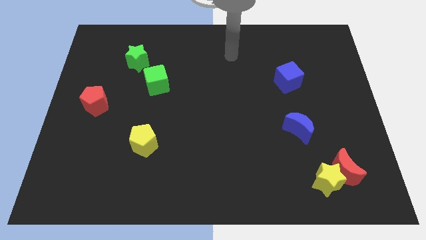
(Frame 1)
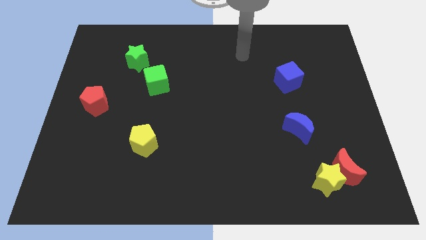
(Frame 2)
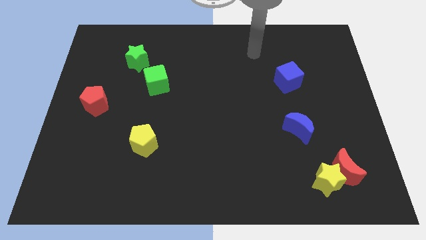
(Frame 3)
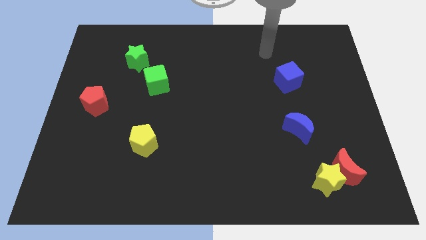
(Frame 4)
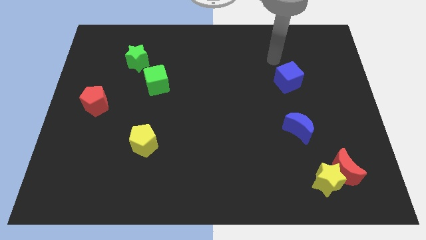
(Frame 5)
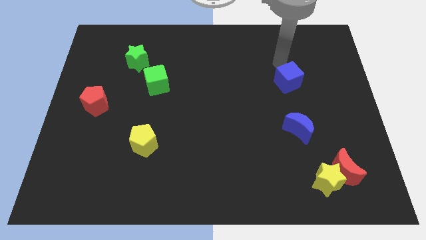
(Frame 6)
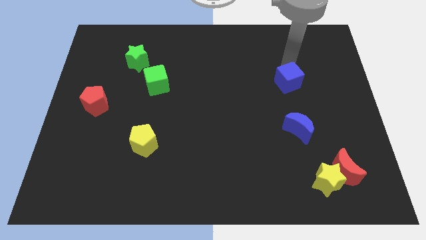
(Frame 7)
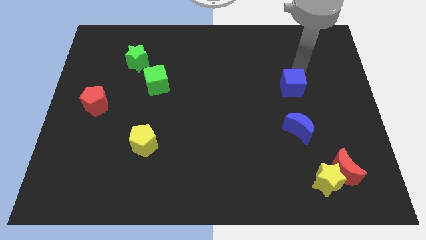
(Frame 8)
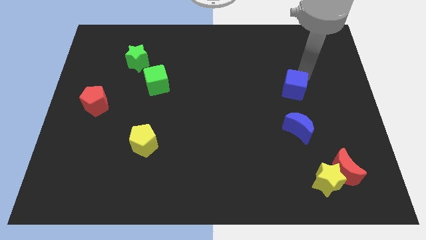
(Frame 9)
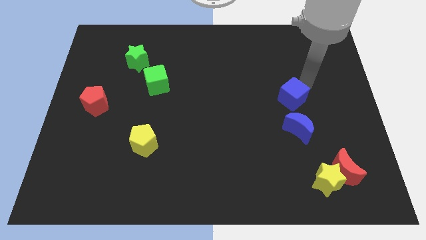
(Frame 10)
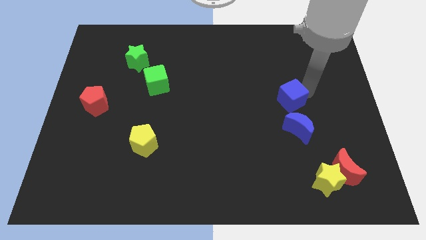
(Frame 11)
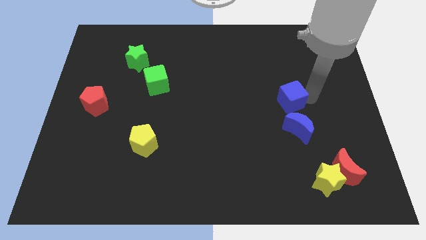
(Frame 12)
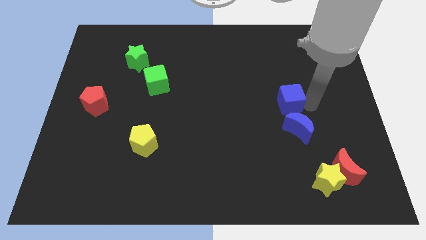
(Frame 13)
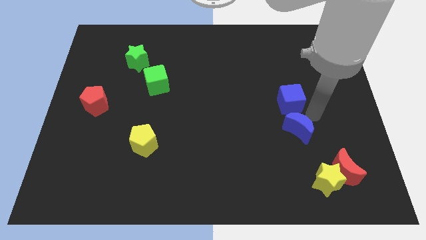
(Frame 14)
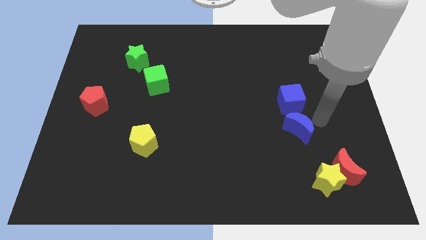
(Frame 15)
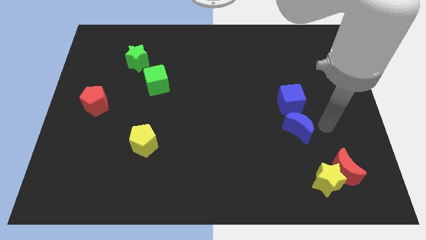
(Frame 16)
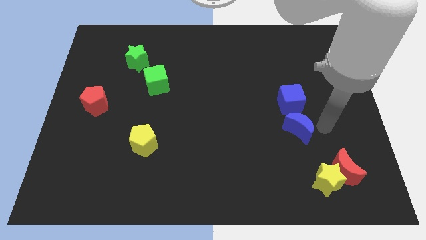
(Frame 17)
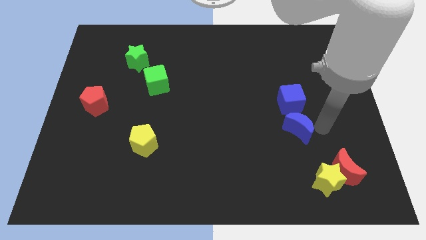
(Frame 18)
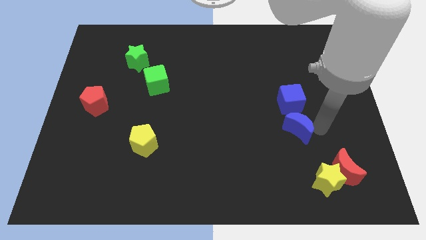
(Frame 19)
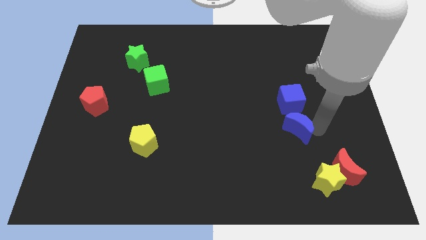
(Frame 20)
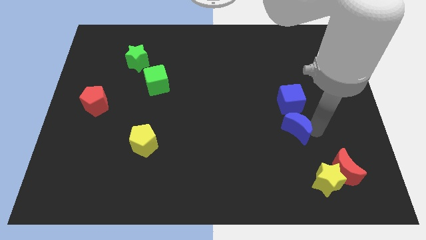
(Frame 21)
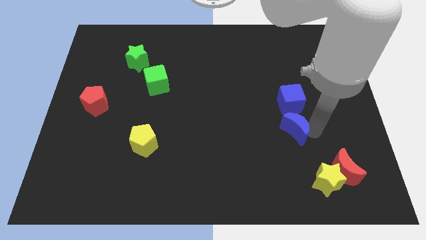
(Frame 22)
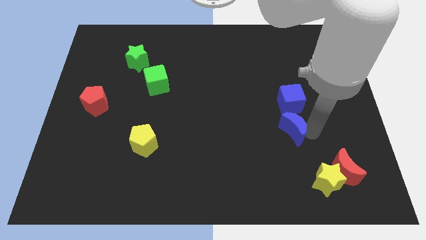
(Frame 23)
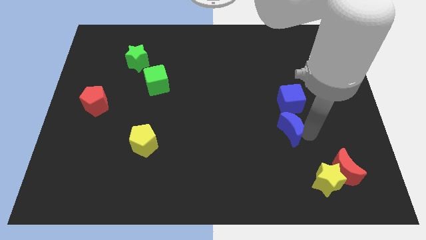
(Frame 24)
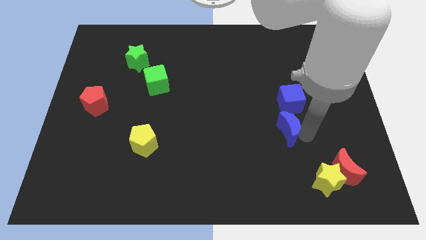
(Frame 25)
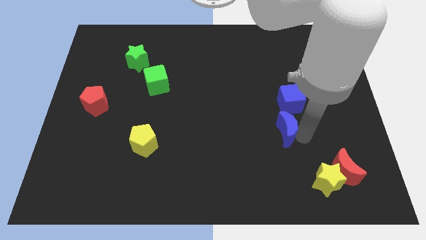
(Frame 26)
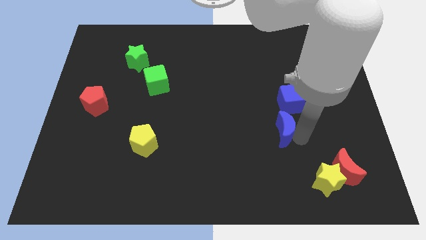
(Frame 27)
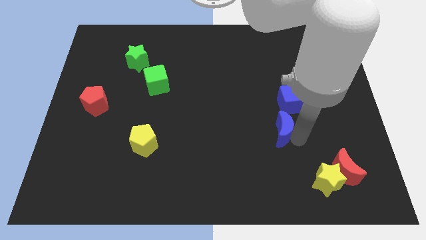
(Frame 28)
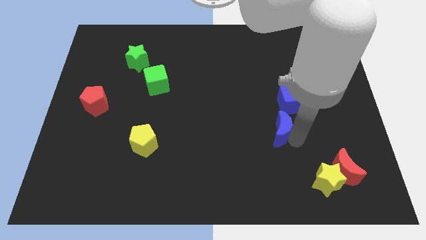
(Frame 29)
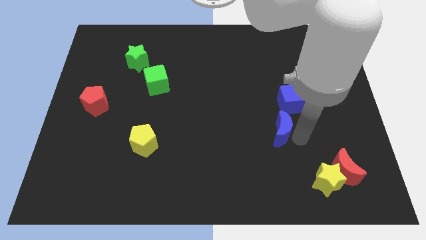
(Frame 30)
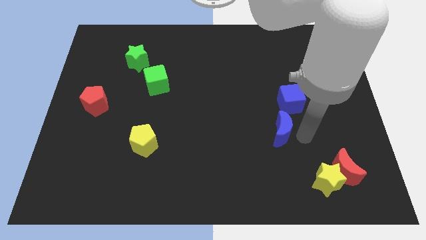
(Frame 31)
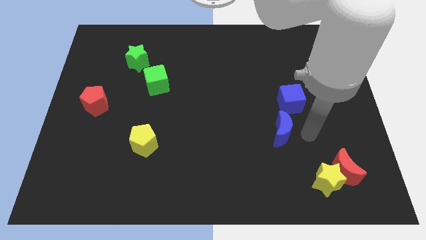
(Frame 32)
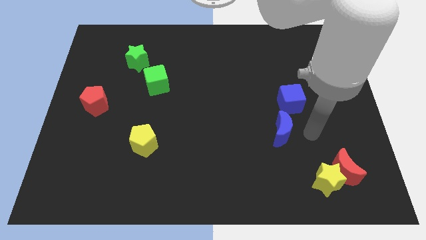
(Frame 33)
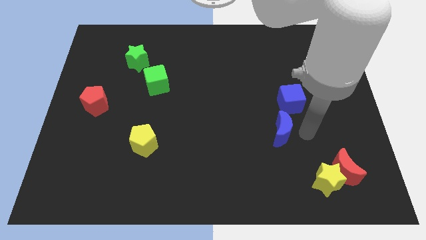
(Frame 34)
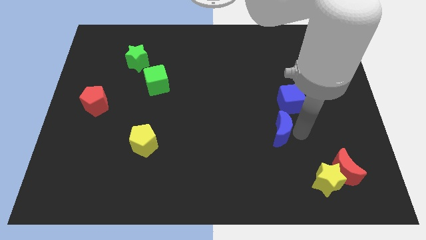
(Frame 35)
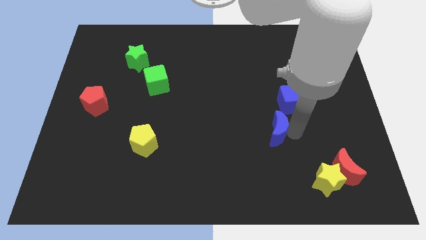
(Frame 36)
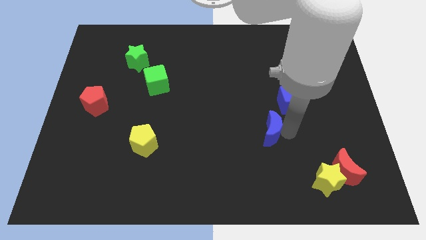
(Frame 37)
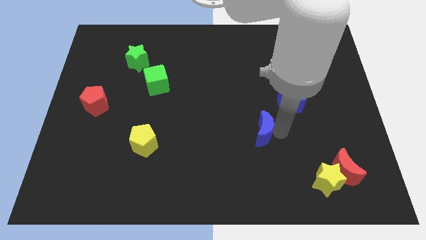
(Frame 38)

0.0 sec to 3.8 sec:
slightly slide the blue moon to the left

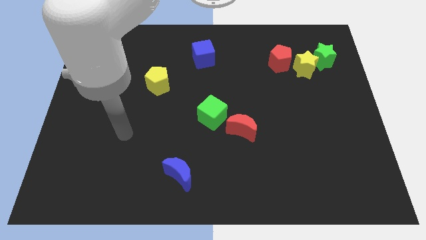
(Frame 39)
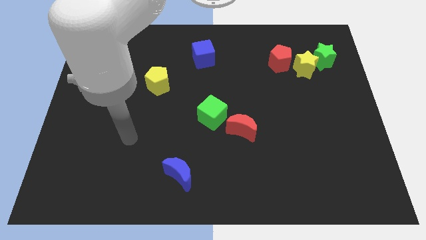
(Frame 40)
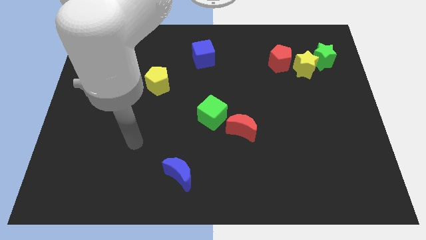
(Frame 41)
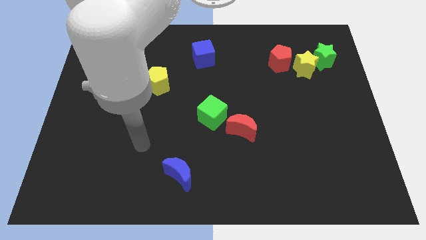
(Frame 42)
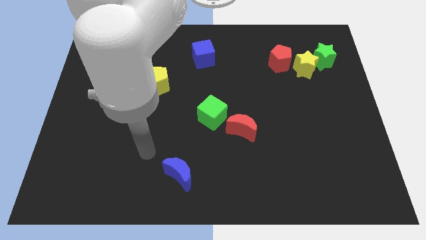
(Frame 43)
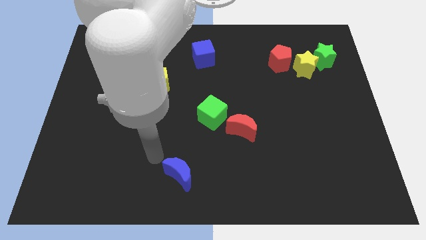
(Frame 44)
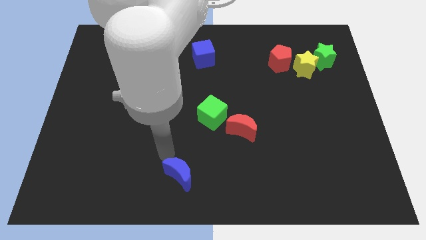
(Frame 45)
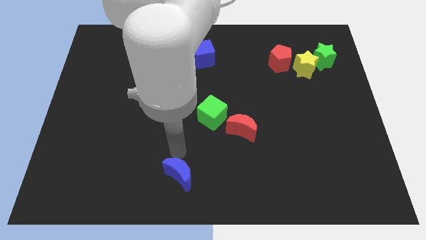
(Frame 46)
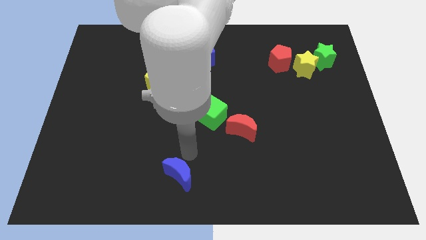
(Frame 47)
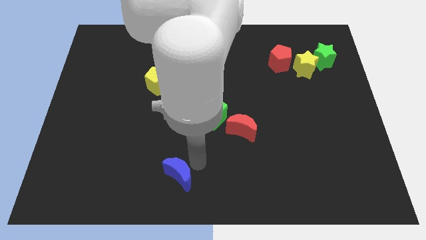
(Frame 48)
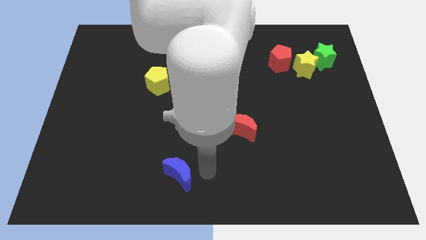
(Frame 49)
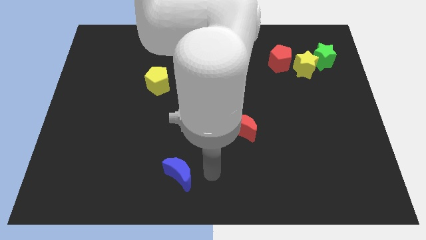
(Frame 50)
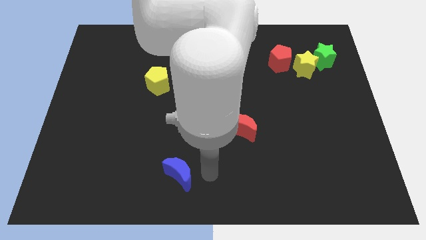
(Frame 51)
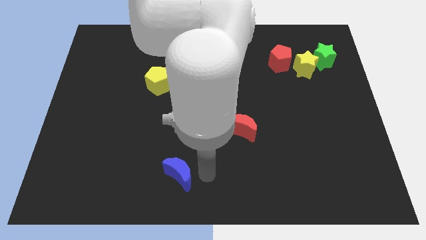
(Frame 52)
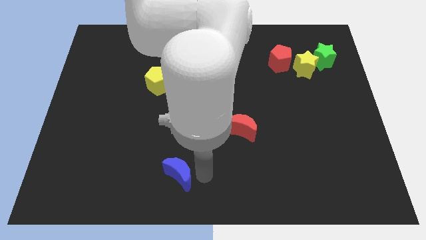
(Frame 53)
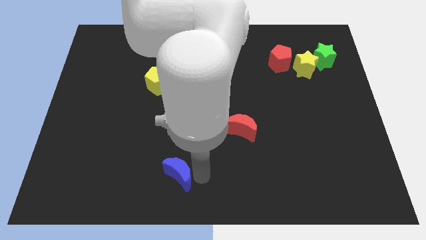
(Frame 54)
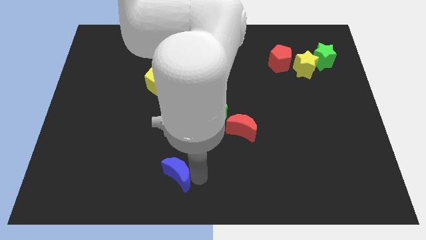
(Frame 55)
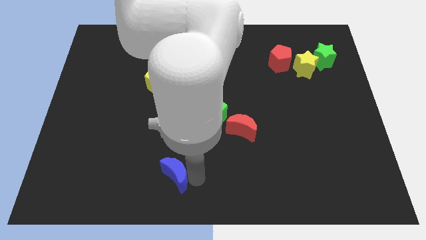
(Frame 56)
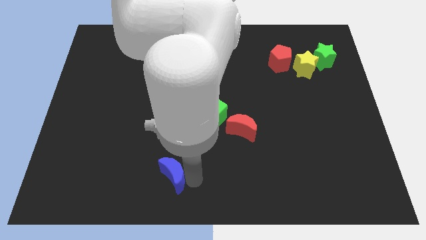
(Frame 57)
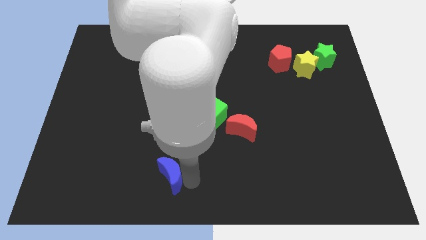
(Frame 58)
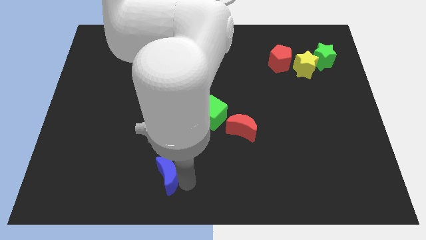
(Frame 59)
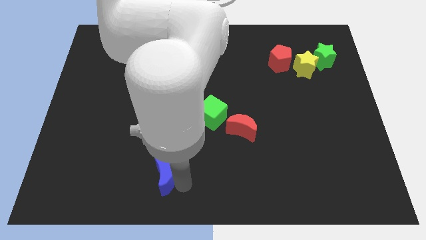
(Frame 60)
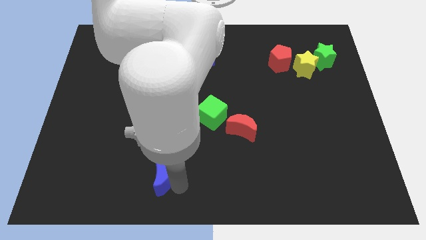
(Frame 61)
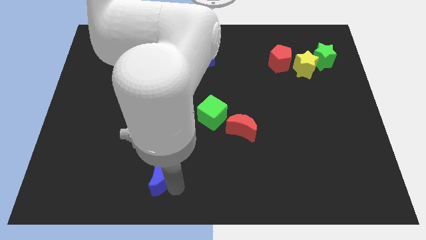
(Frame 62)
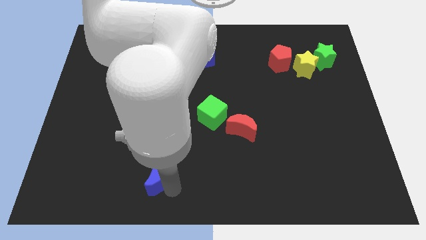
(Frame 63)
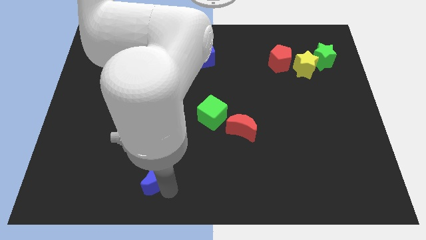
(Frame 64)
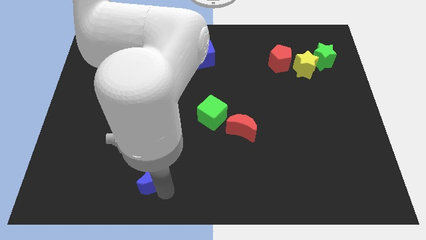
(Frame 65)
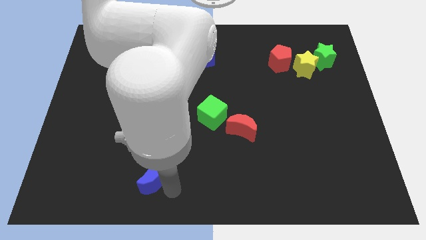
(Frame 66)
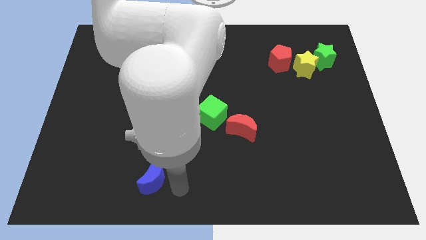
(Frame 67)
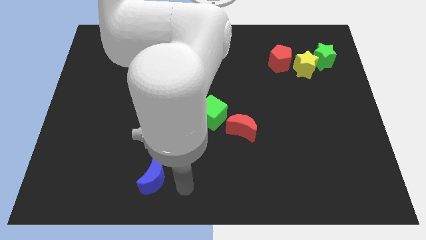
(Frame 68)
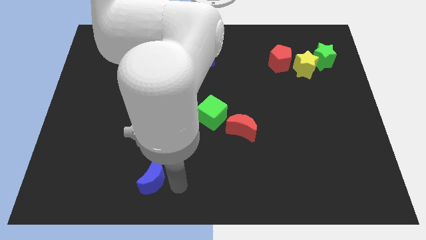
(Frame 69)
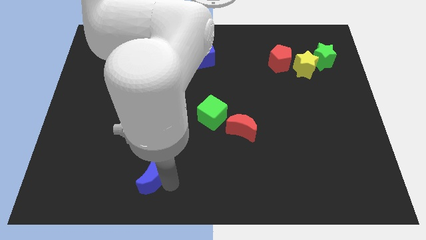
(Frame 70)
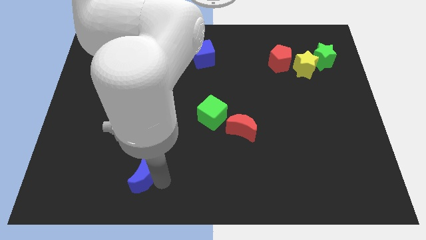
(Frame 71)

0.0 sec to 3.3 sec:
slide the blue moon a bit left

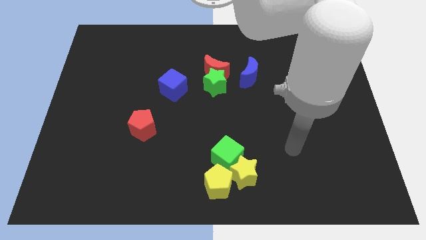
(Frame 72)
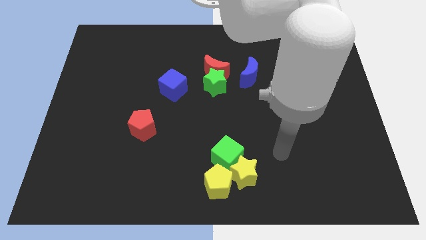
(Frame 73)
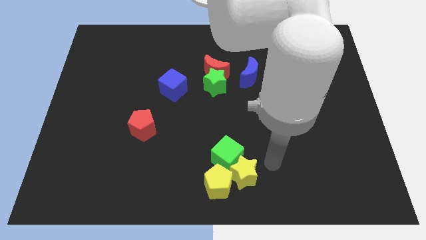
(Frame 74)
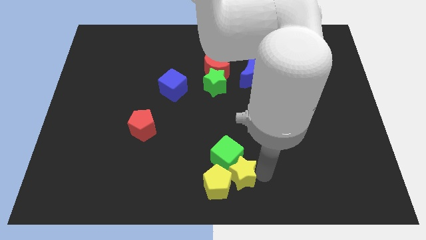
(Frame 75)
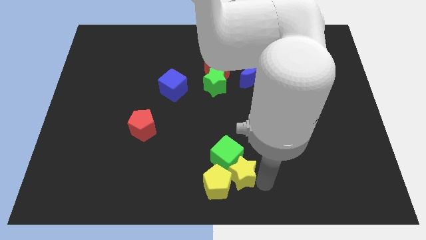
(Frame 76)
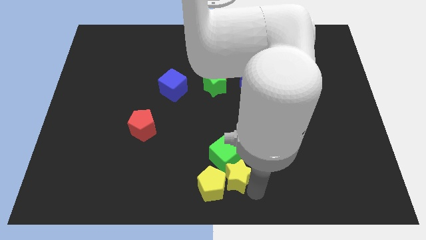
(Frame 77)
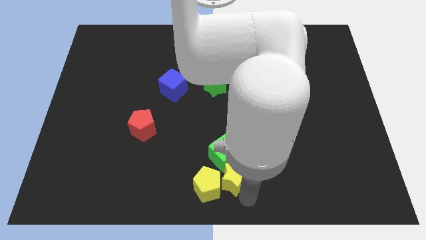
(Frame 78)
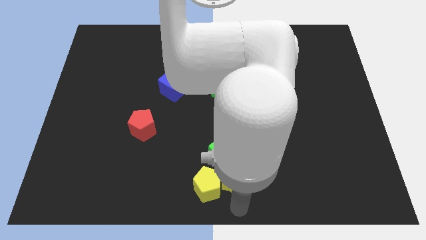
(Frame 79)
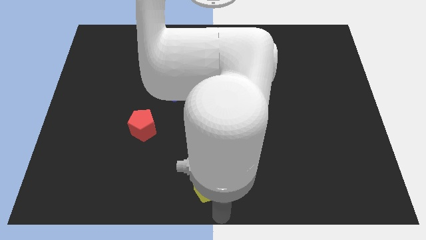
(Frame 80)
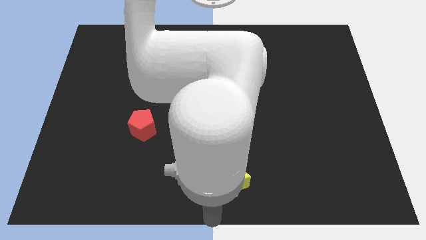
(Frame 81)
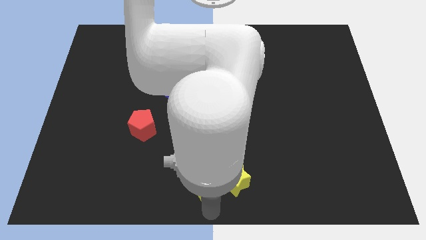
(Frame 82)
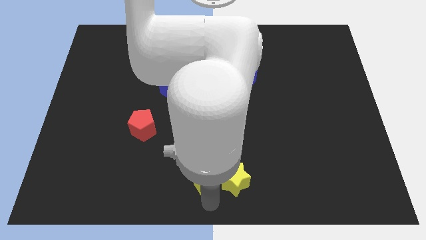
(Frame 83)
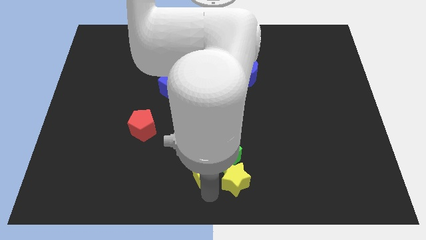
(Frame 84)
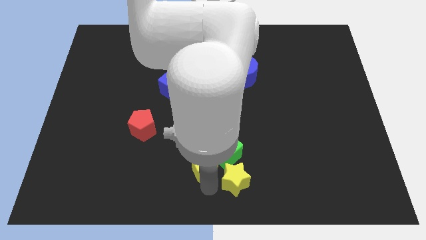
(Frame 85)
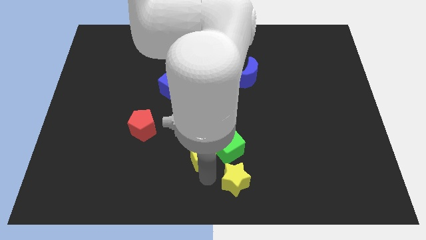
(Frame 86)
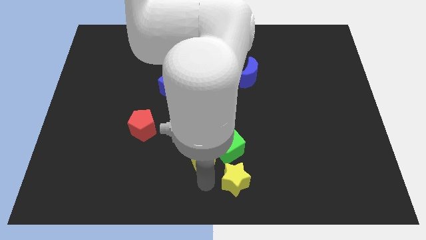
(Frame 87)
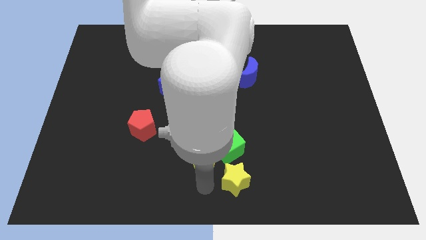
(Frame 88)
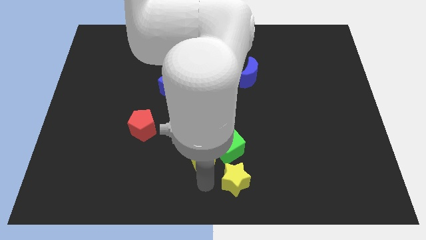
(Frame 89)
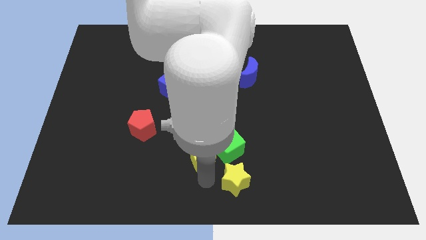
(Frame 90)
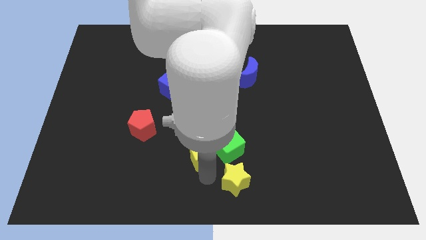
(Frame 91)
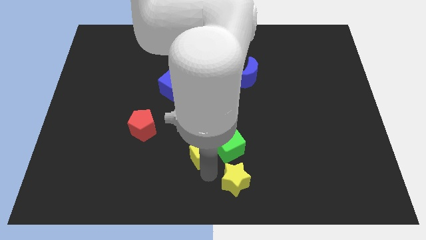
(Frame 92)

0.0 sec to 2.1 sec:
push the yellow pentagon a little bit up
